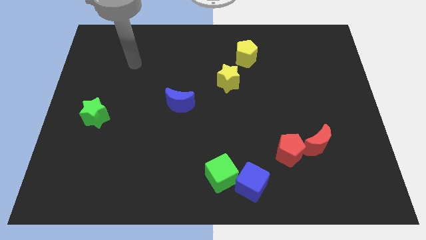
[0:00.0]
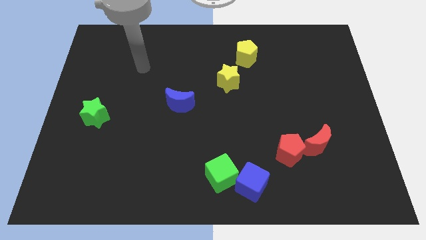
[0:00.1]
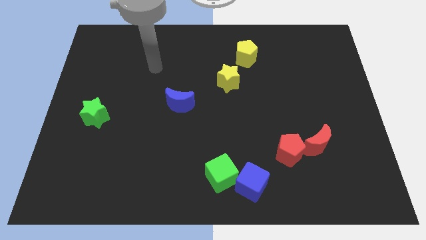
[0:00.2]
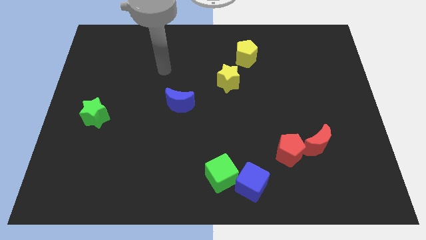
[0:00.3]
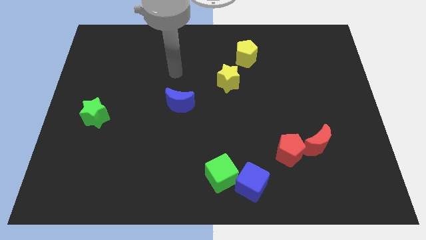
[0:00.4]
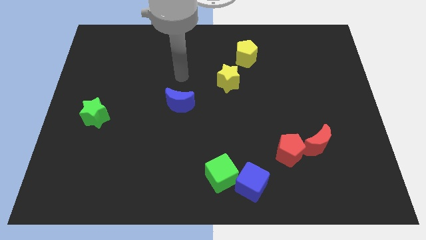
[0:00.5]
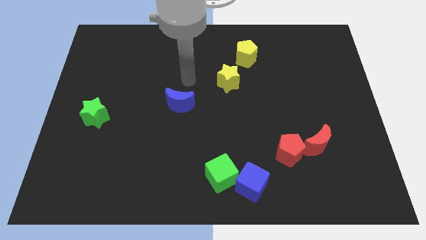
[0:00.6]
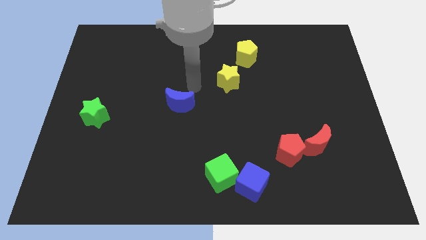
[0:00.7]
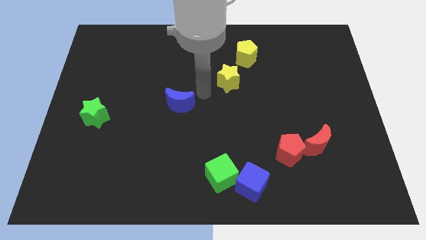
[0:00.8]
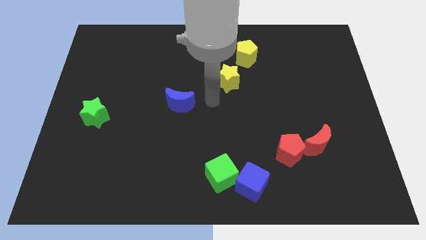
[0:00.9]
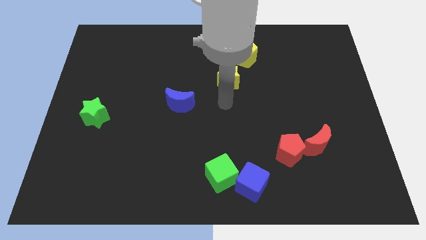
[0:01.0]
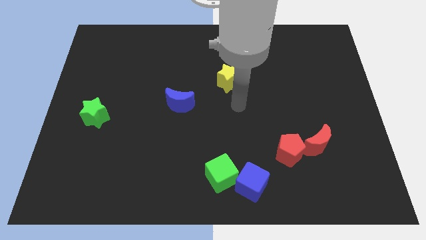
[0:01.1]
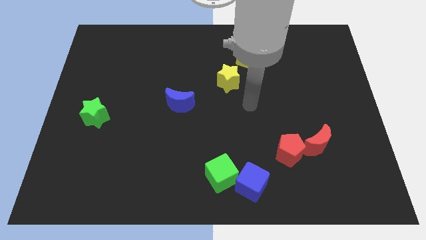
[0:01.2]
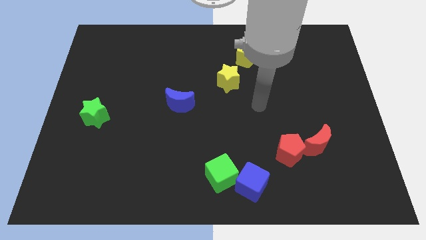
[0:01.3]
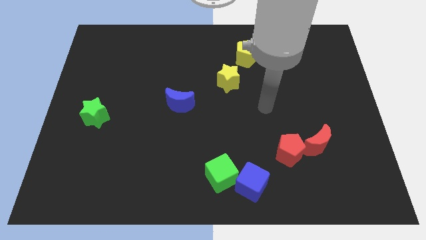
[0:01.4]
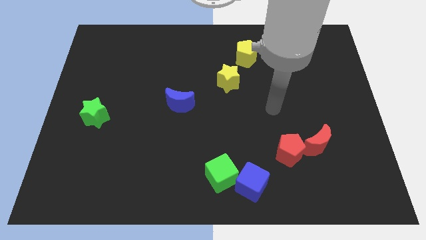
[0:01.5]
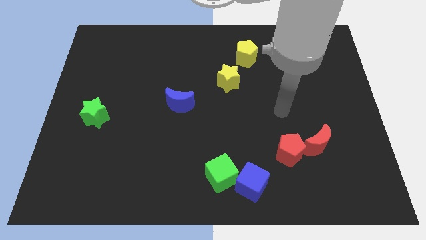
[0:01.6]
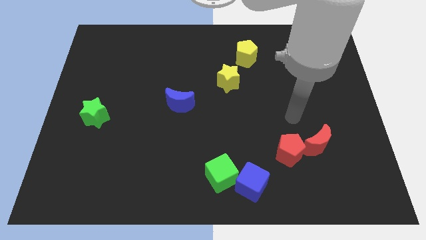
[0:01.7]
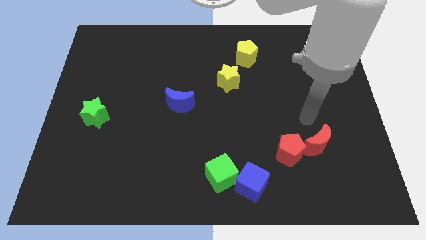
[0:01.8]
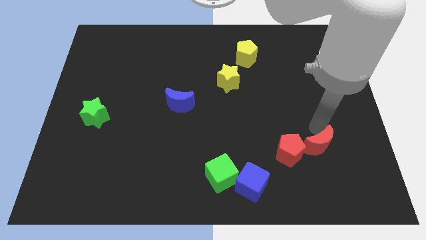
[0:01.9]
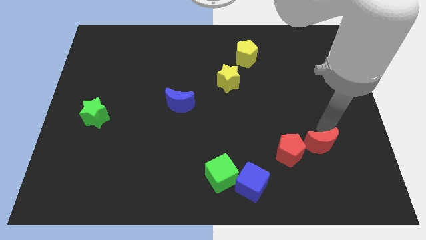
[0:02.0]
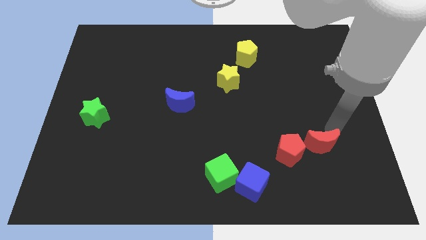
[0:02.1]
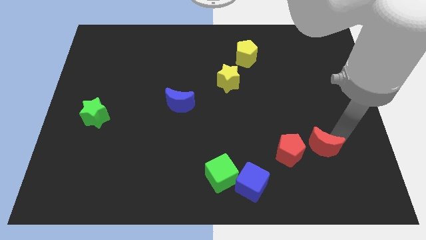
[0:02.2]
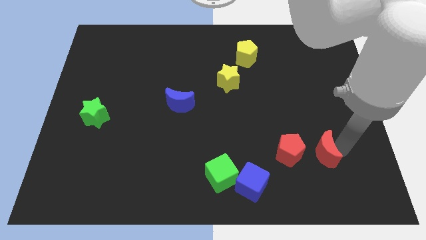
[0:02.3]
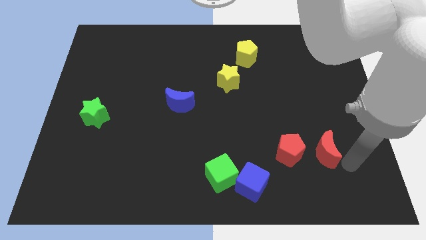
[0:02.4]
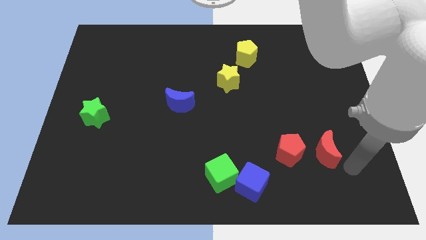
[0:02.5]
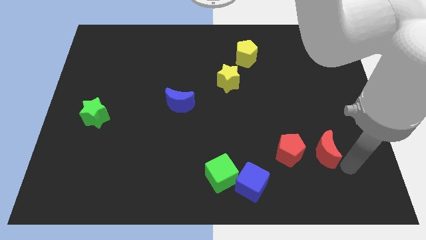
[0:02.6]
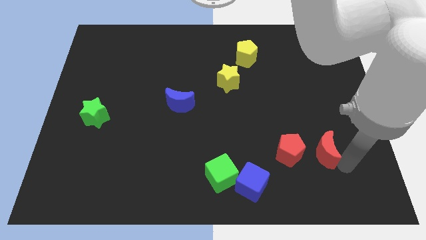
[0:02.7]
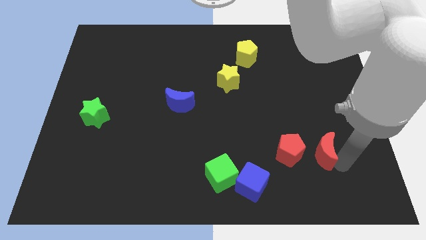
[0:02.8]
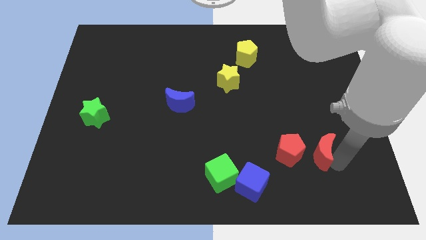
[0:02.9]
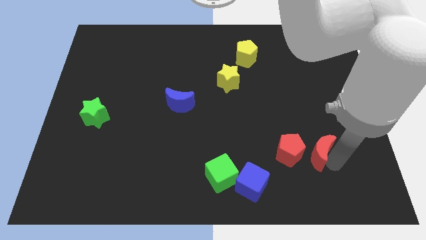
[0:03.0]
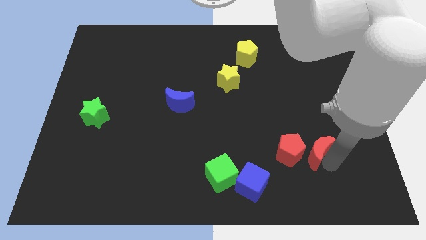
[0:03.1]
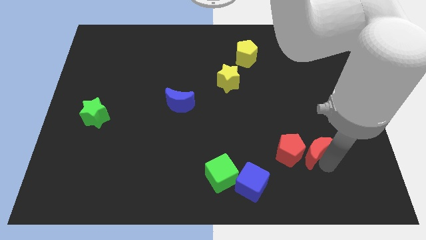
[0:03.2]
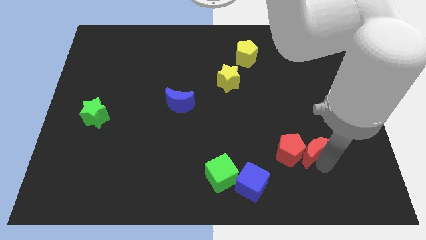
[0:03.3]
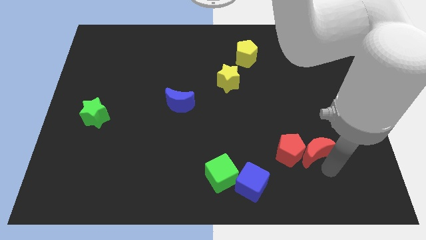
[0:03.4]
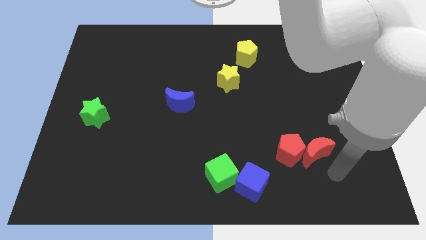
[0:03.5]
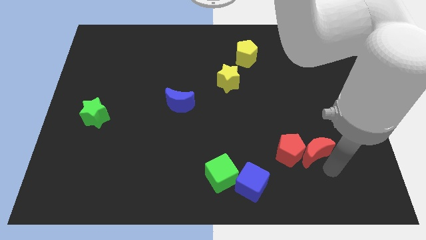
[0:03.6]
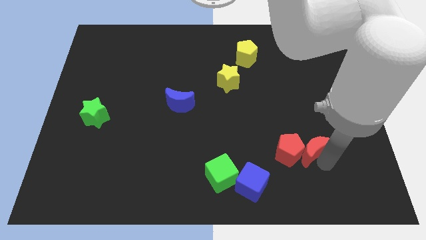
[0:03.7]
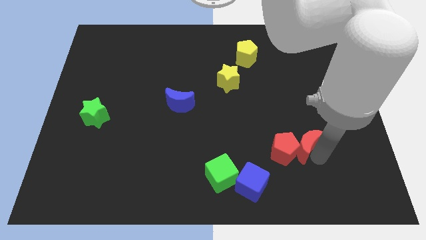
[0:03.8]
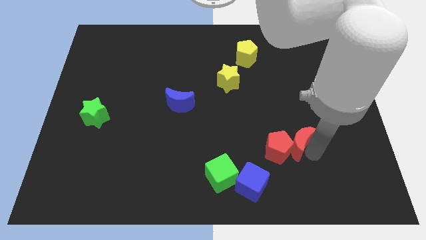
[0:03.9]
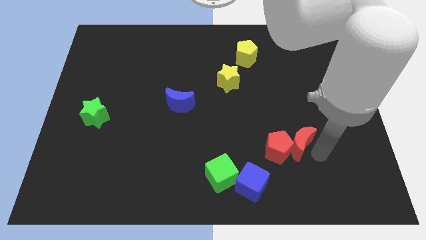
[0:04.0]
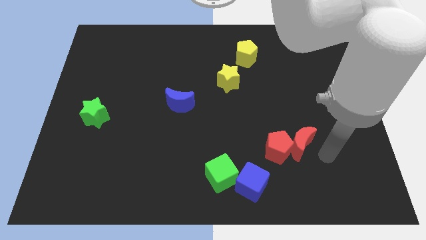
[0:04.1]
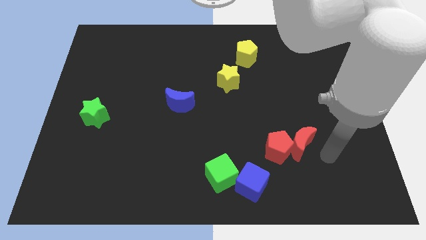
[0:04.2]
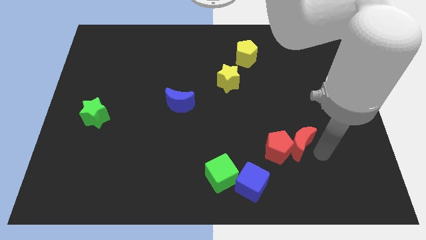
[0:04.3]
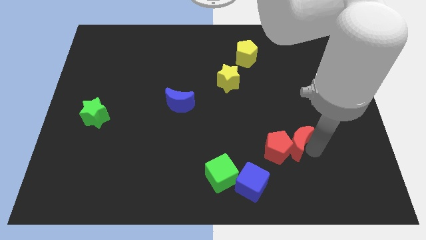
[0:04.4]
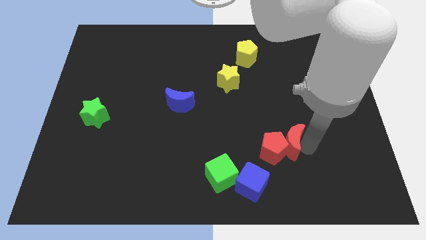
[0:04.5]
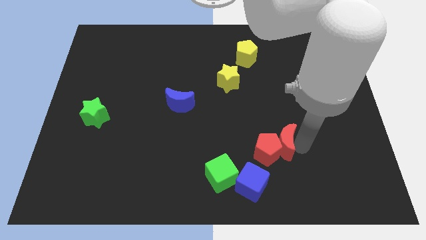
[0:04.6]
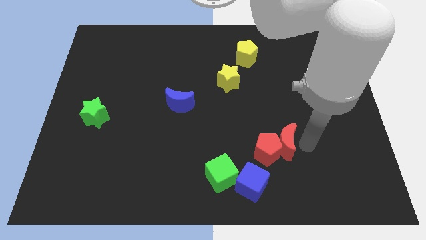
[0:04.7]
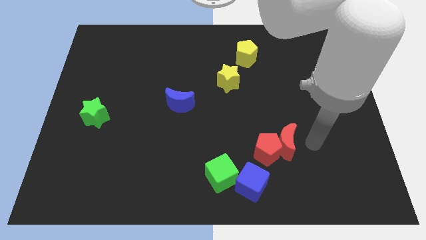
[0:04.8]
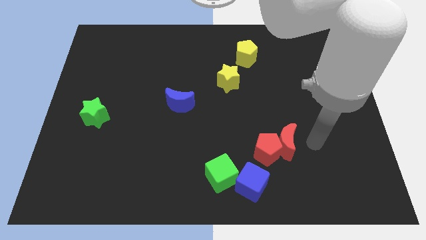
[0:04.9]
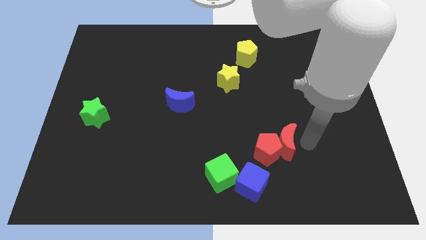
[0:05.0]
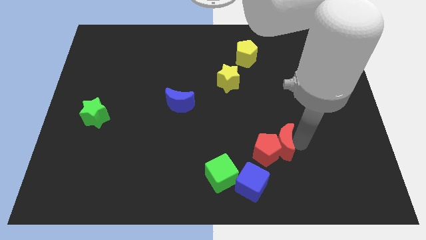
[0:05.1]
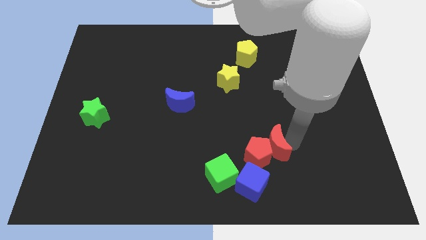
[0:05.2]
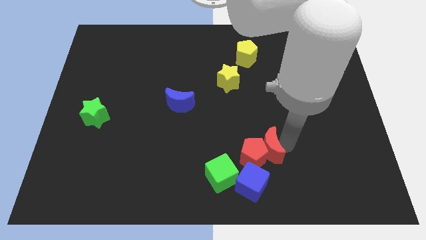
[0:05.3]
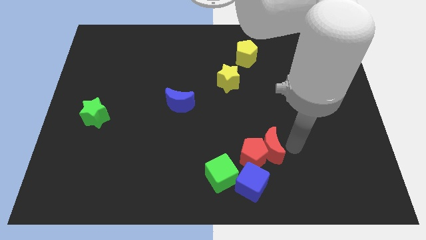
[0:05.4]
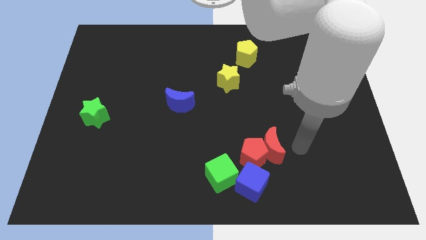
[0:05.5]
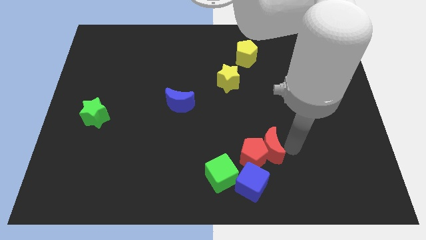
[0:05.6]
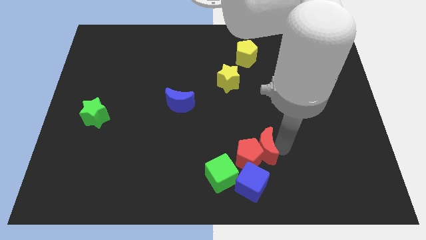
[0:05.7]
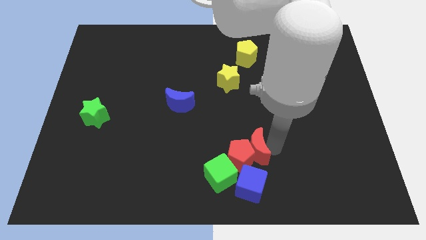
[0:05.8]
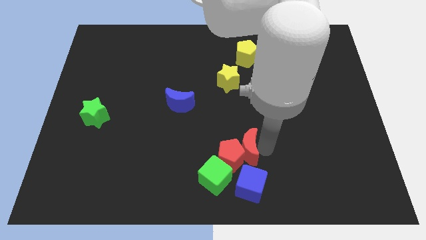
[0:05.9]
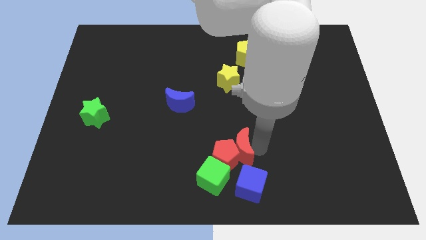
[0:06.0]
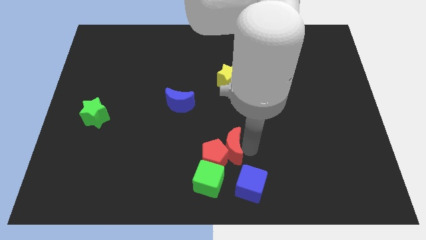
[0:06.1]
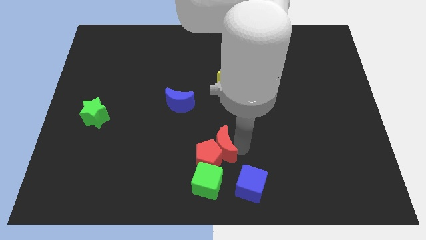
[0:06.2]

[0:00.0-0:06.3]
move the red moon left

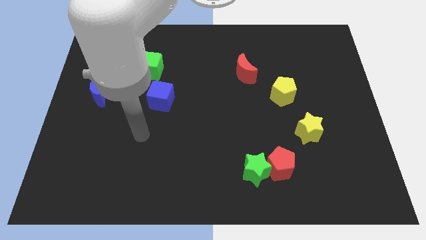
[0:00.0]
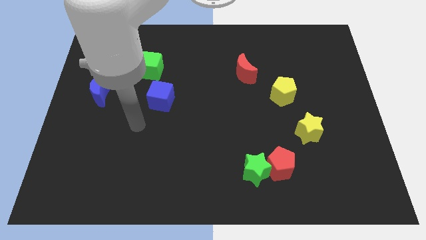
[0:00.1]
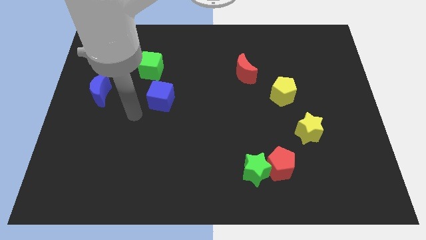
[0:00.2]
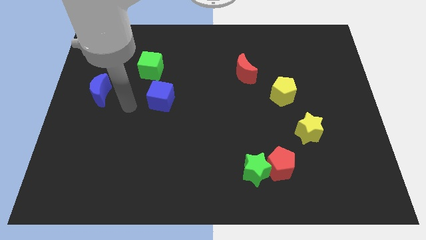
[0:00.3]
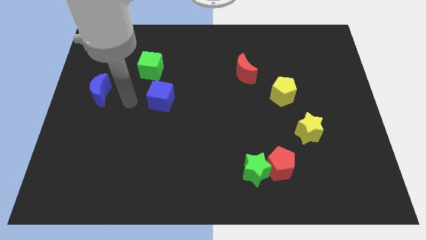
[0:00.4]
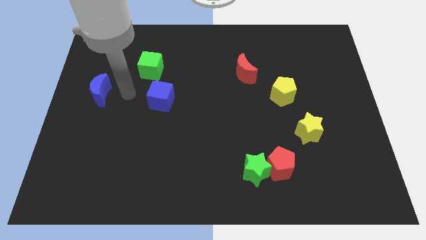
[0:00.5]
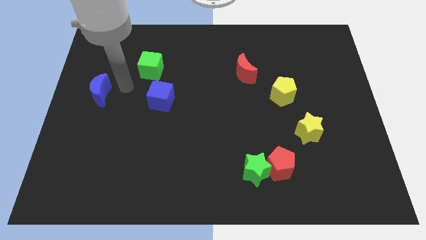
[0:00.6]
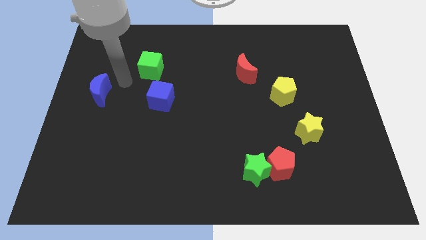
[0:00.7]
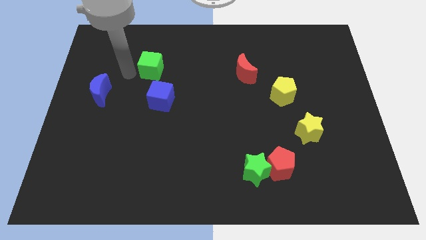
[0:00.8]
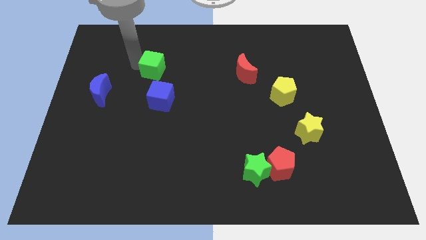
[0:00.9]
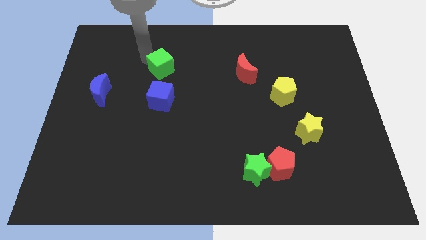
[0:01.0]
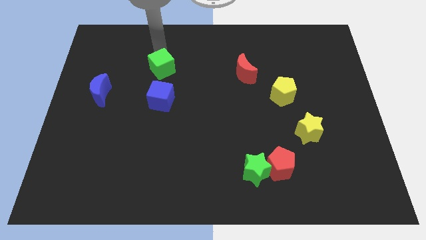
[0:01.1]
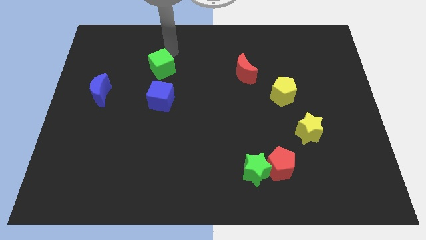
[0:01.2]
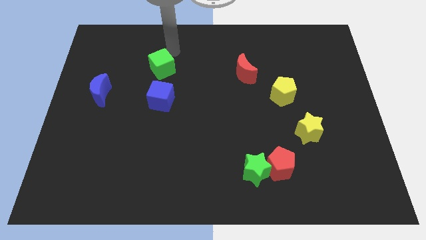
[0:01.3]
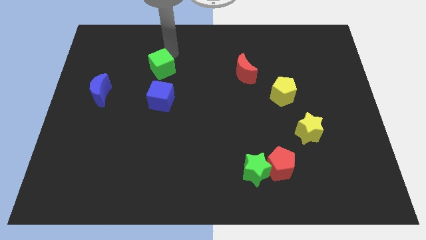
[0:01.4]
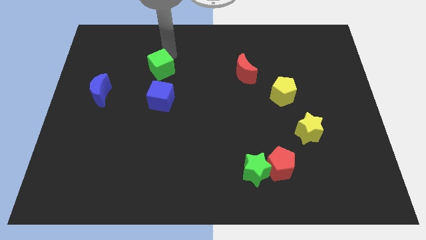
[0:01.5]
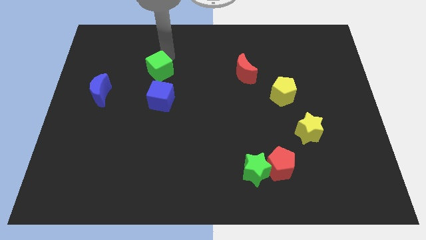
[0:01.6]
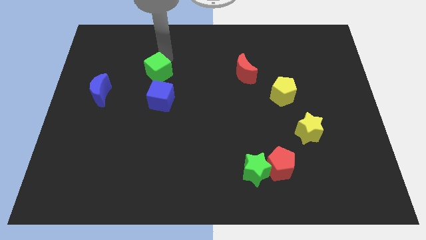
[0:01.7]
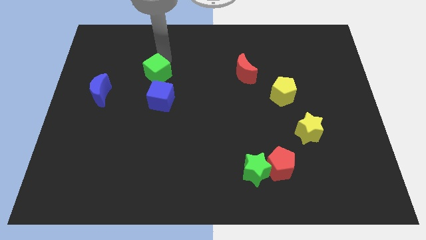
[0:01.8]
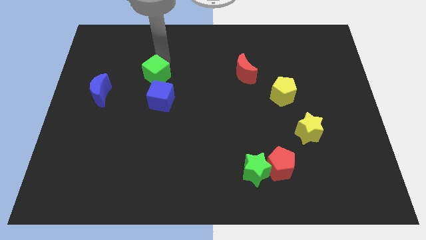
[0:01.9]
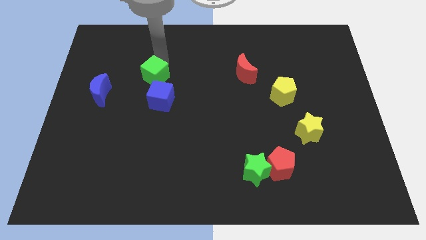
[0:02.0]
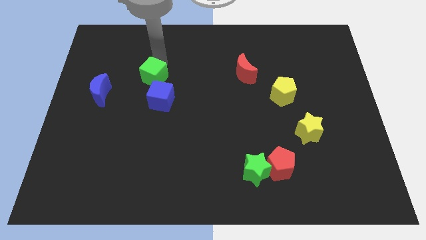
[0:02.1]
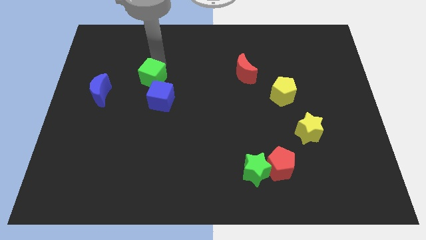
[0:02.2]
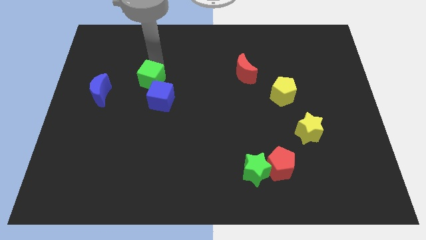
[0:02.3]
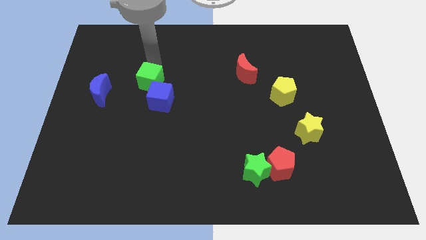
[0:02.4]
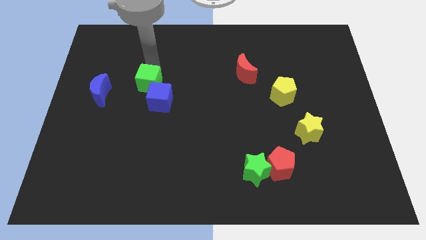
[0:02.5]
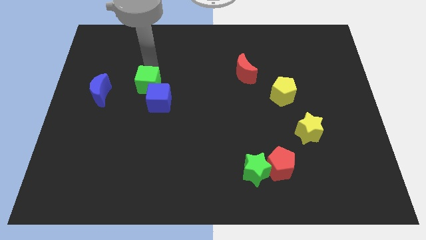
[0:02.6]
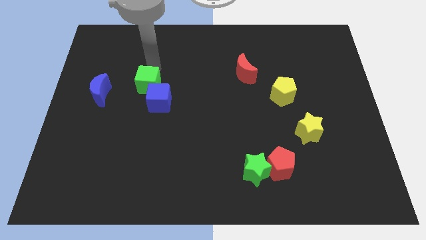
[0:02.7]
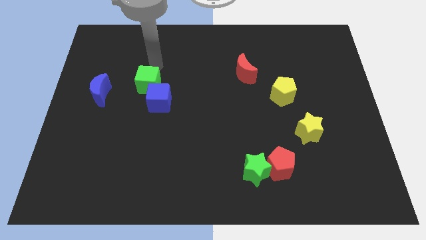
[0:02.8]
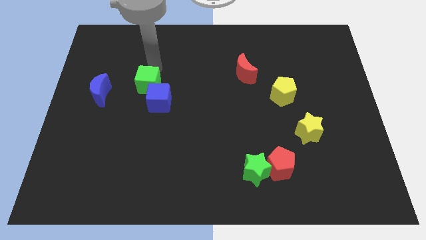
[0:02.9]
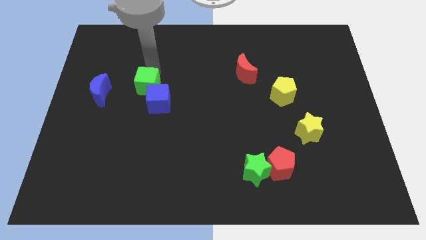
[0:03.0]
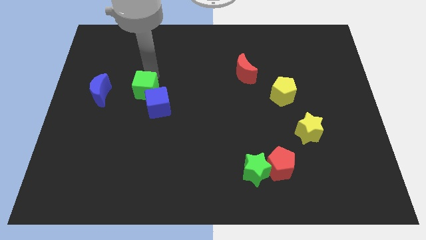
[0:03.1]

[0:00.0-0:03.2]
slide the green cube a little bit downwards
